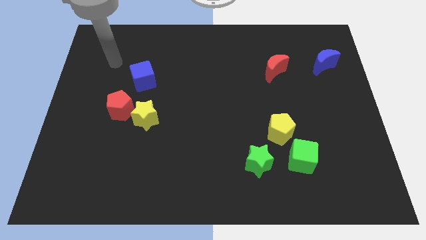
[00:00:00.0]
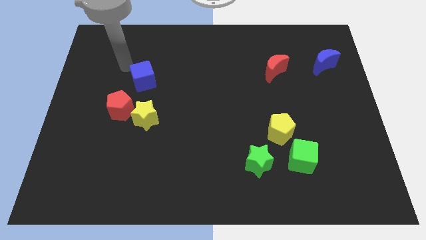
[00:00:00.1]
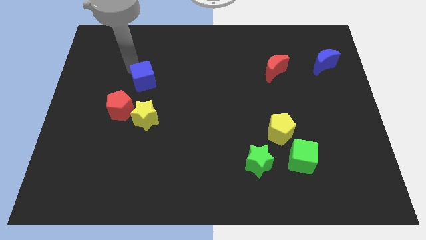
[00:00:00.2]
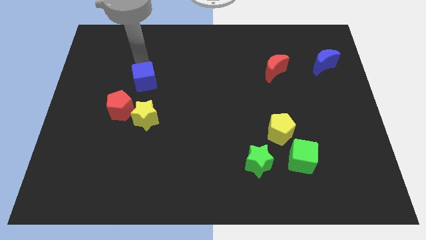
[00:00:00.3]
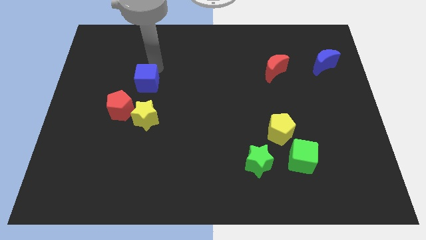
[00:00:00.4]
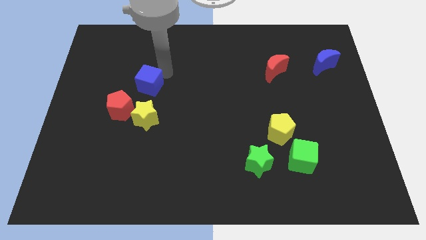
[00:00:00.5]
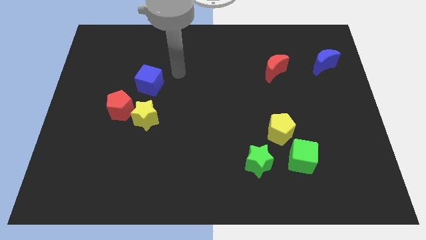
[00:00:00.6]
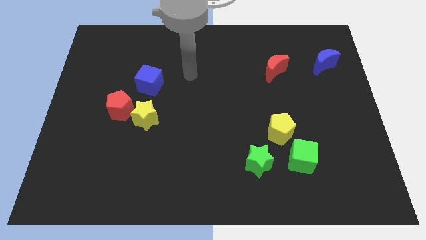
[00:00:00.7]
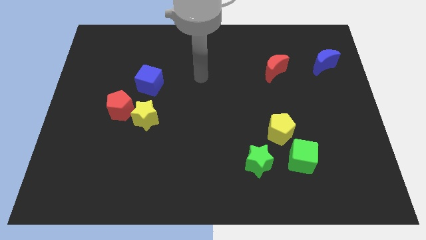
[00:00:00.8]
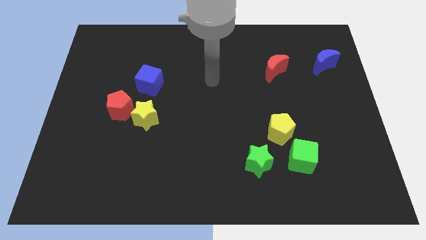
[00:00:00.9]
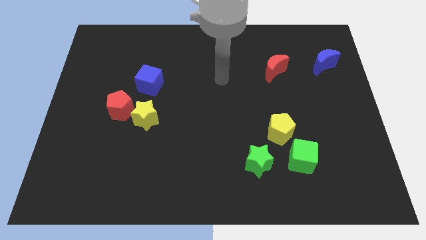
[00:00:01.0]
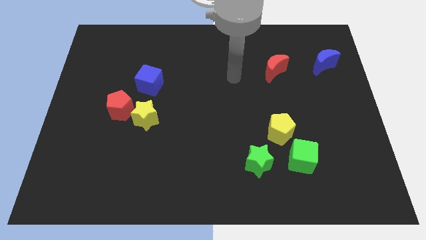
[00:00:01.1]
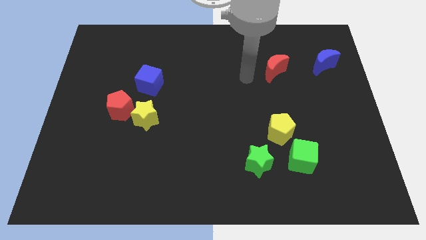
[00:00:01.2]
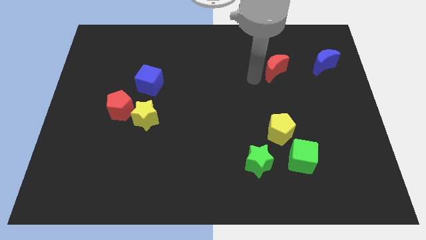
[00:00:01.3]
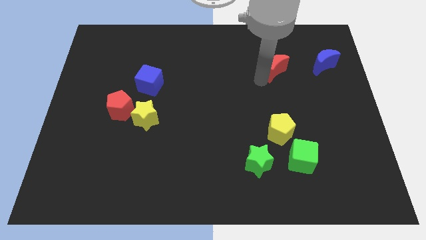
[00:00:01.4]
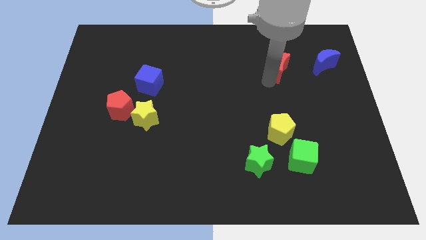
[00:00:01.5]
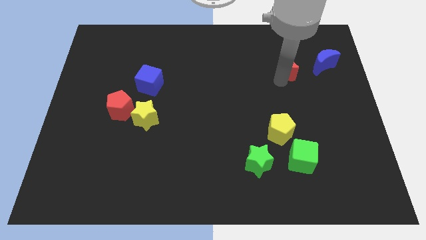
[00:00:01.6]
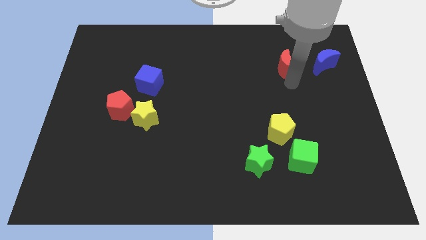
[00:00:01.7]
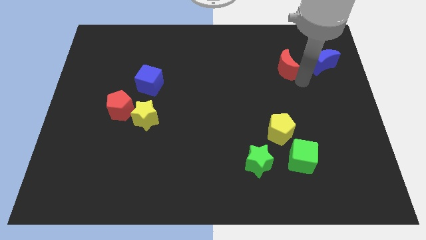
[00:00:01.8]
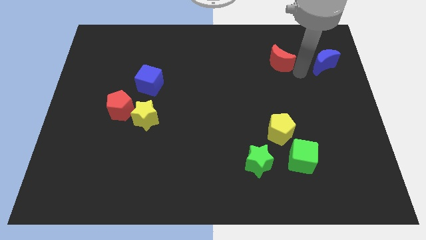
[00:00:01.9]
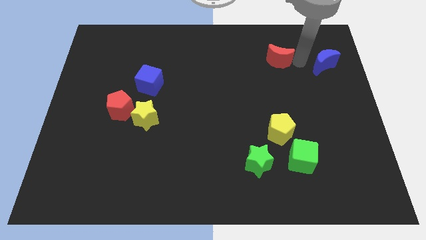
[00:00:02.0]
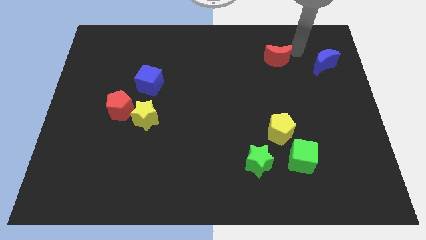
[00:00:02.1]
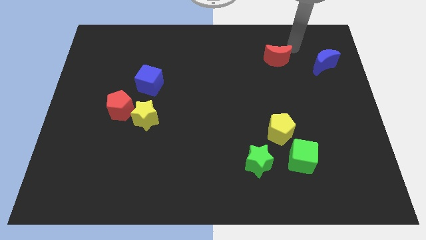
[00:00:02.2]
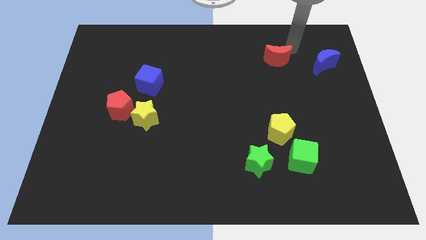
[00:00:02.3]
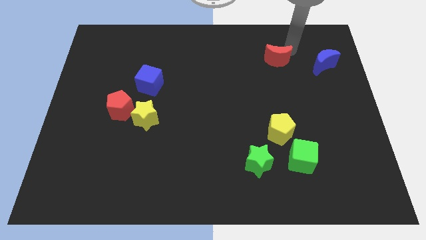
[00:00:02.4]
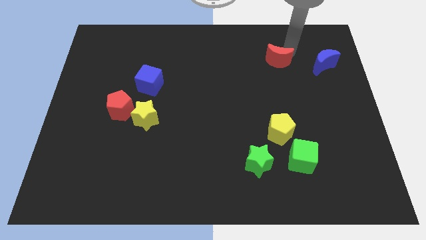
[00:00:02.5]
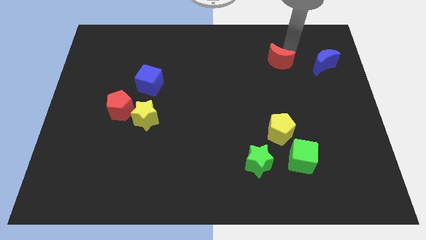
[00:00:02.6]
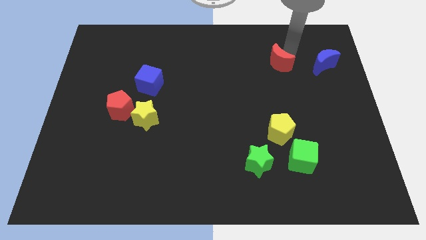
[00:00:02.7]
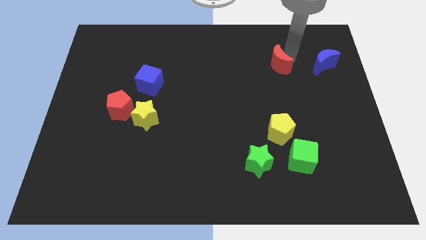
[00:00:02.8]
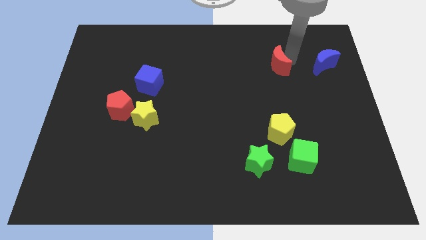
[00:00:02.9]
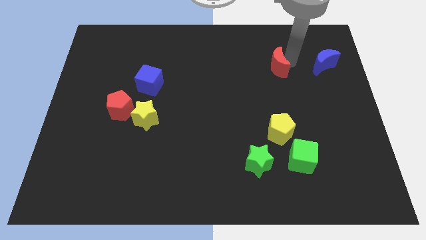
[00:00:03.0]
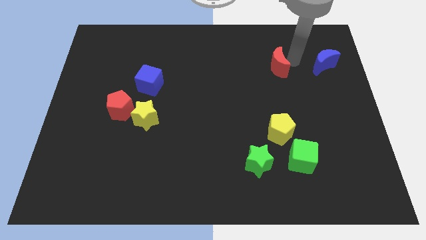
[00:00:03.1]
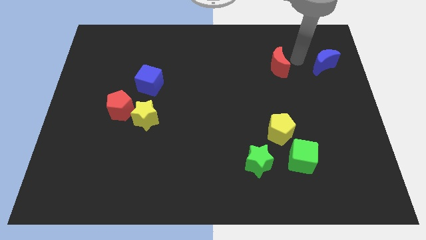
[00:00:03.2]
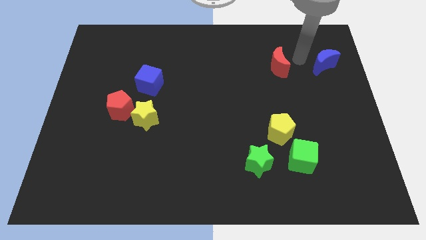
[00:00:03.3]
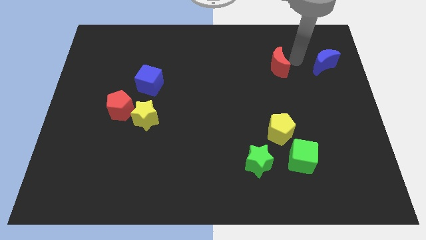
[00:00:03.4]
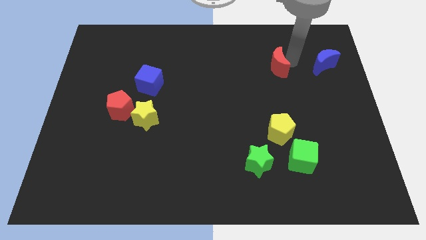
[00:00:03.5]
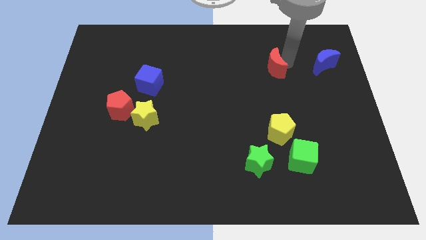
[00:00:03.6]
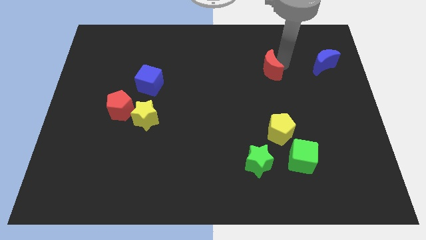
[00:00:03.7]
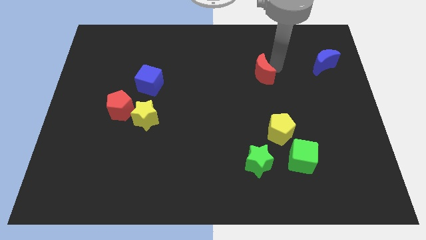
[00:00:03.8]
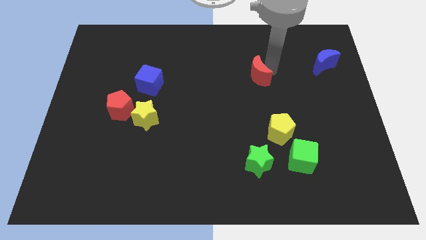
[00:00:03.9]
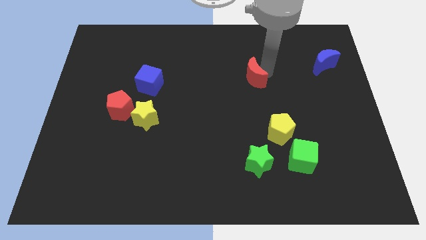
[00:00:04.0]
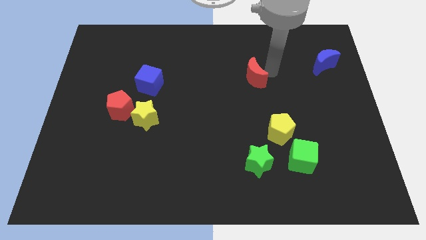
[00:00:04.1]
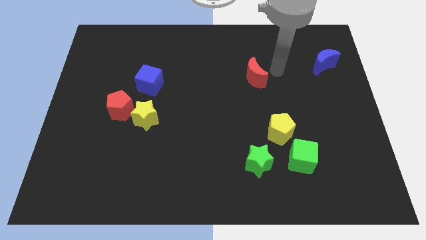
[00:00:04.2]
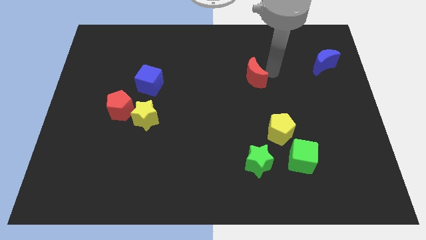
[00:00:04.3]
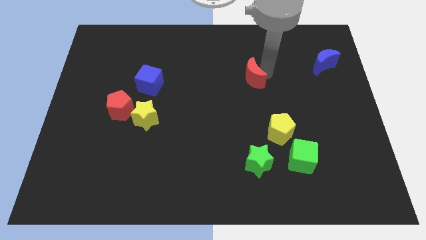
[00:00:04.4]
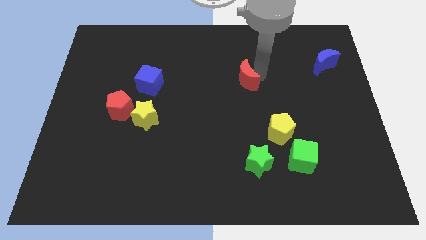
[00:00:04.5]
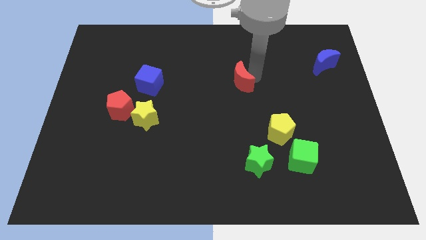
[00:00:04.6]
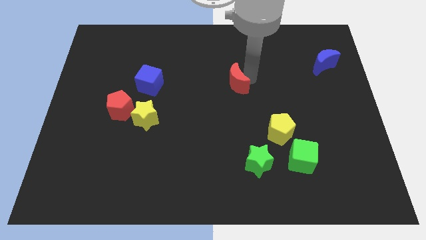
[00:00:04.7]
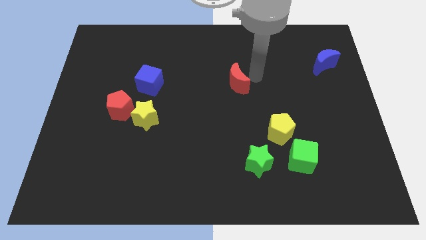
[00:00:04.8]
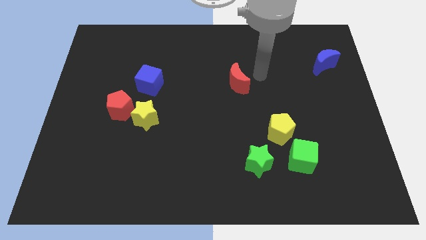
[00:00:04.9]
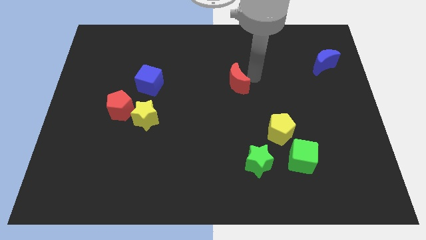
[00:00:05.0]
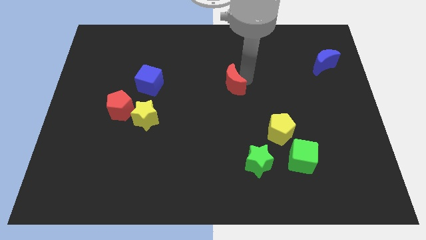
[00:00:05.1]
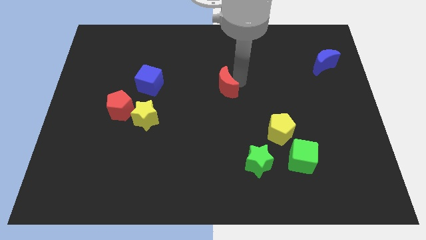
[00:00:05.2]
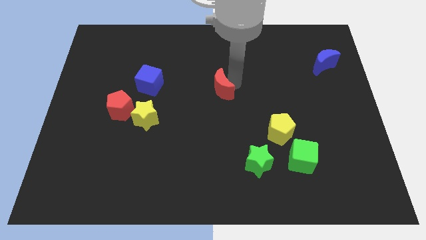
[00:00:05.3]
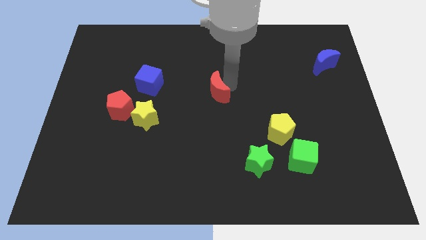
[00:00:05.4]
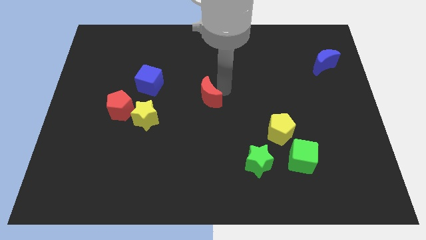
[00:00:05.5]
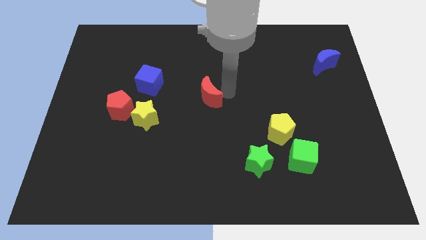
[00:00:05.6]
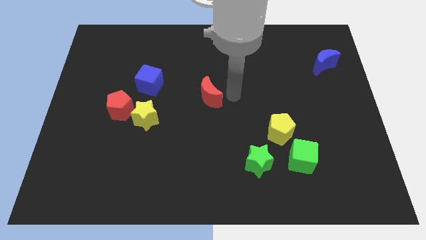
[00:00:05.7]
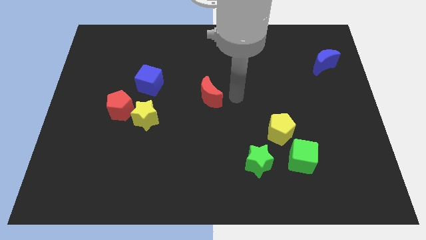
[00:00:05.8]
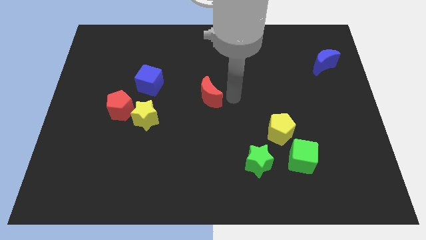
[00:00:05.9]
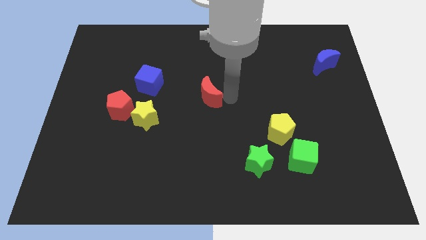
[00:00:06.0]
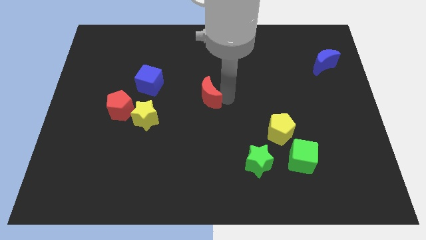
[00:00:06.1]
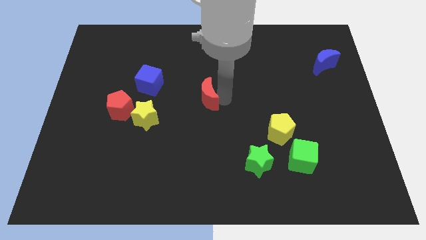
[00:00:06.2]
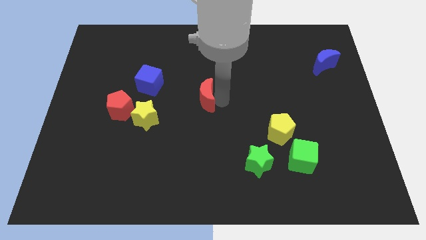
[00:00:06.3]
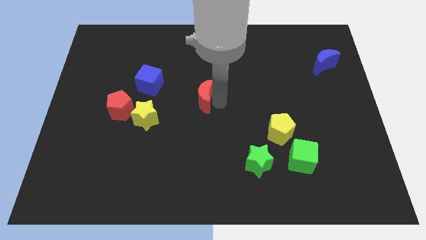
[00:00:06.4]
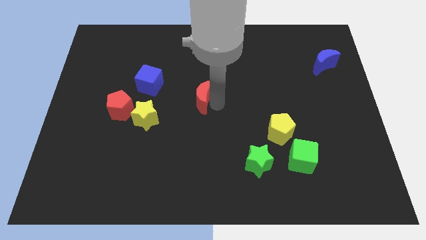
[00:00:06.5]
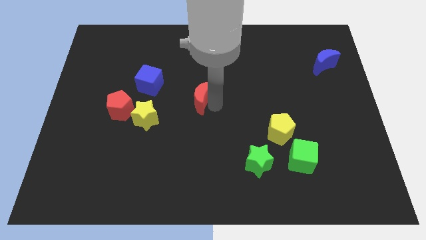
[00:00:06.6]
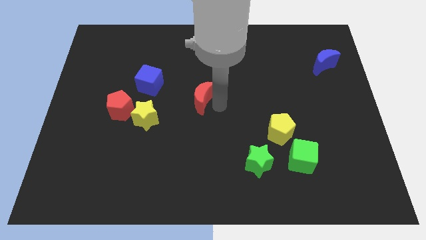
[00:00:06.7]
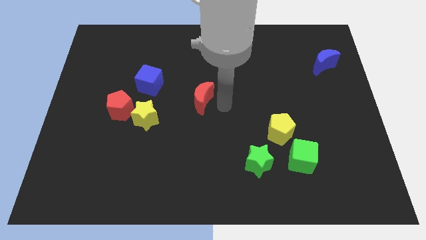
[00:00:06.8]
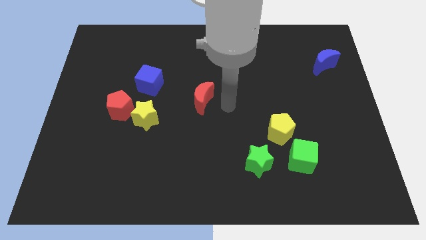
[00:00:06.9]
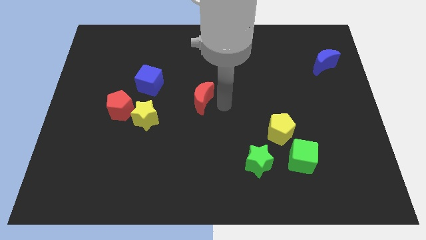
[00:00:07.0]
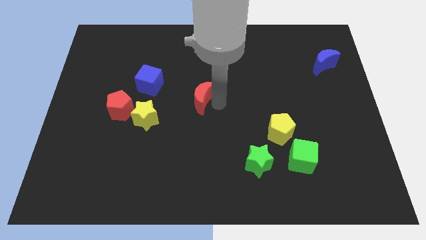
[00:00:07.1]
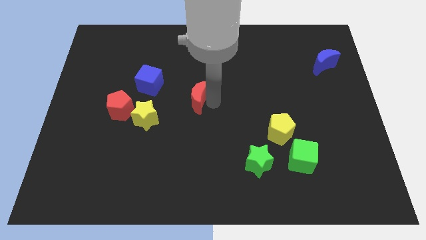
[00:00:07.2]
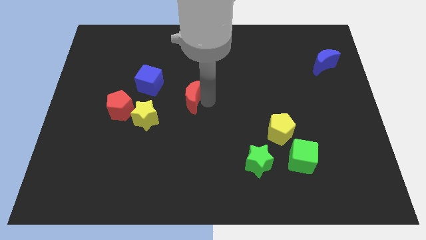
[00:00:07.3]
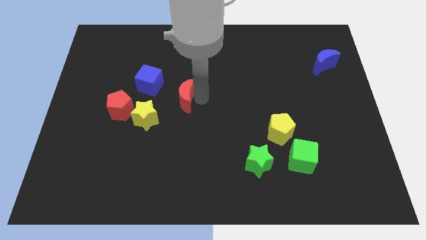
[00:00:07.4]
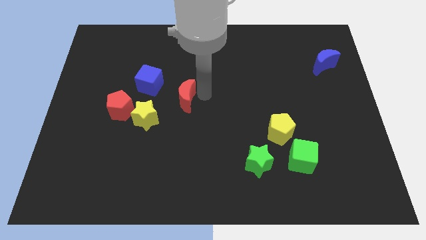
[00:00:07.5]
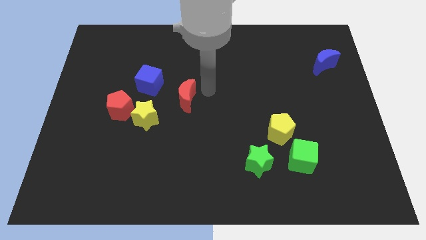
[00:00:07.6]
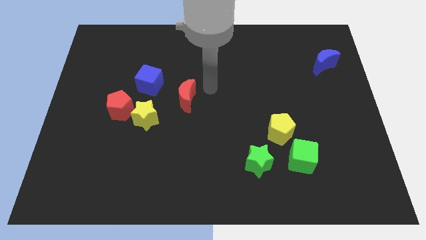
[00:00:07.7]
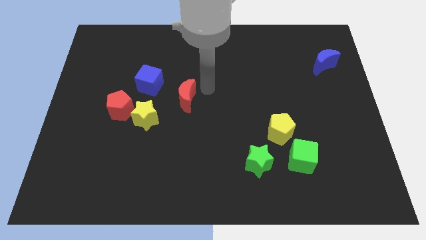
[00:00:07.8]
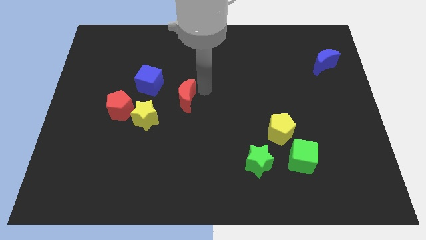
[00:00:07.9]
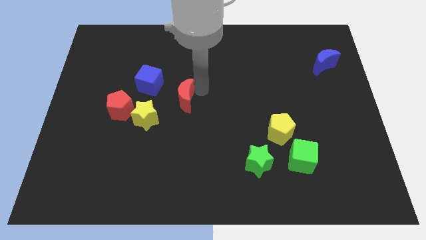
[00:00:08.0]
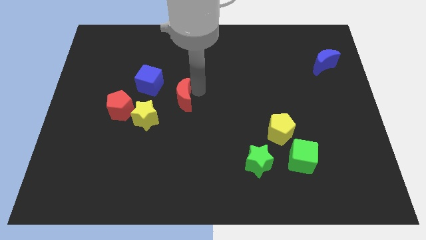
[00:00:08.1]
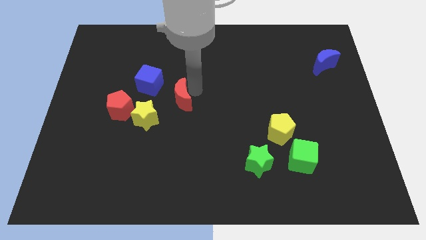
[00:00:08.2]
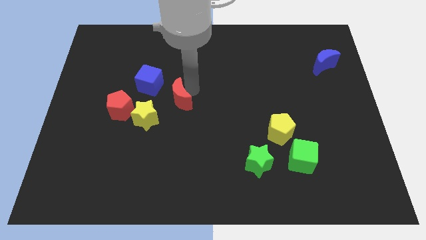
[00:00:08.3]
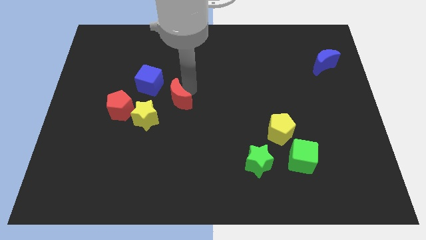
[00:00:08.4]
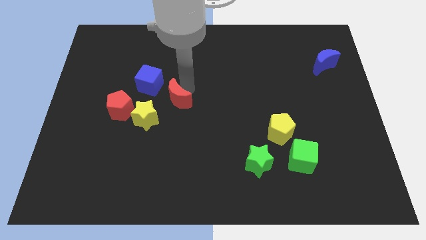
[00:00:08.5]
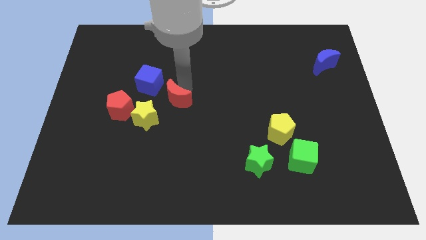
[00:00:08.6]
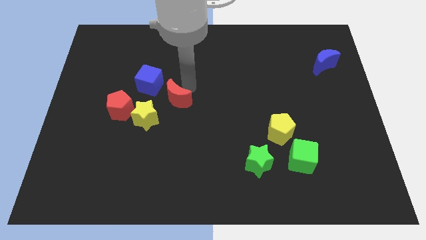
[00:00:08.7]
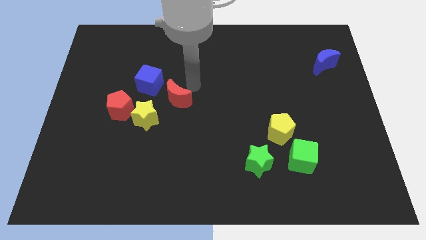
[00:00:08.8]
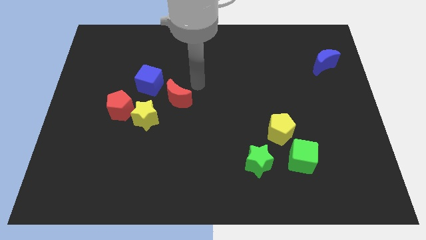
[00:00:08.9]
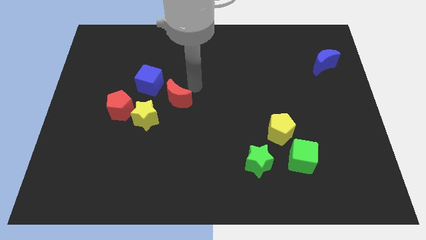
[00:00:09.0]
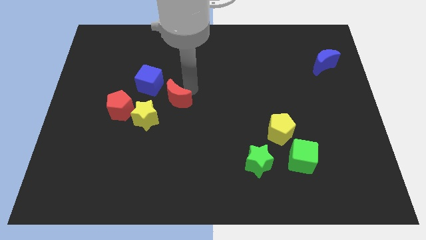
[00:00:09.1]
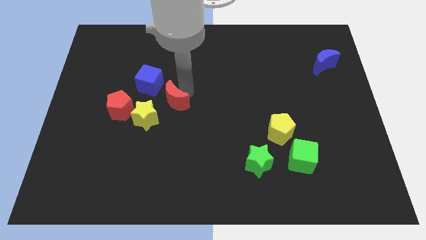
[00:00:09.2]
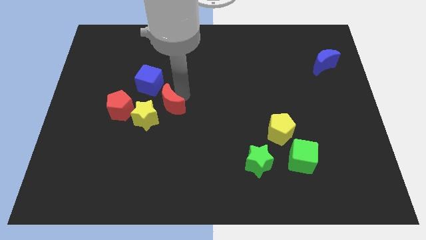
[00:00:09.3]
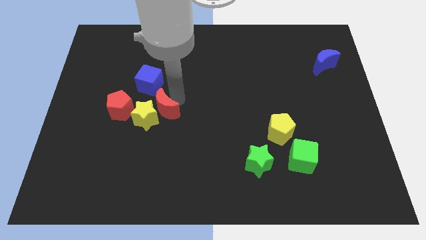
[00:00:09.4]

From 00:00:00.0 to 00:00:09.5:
slide the red moon close to the yellow star
